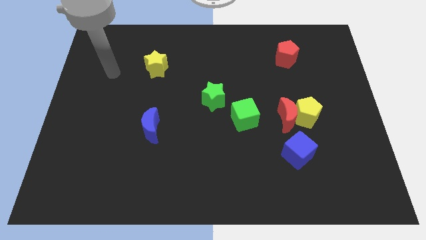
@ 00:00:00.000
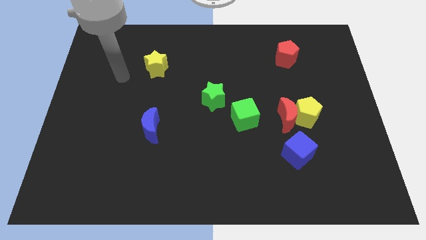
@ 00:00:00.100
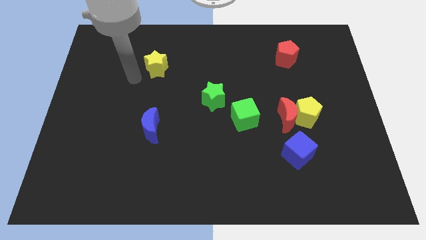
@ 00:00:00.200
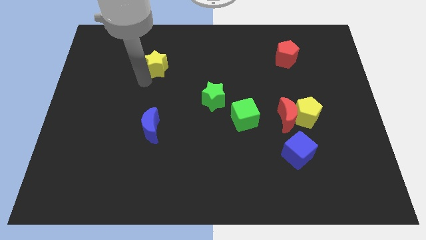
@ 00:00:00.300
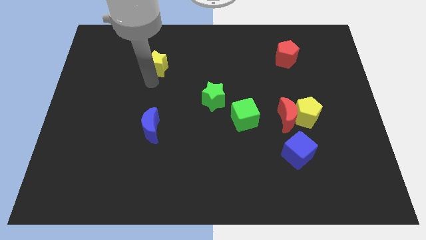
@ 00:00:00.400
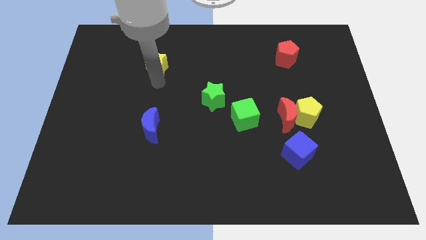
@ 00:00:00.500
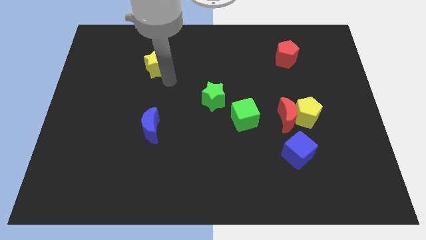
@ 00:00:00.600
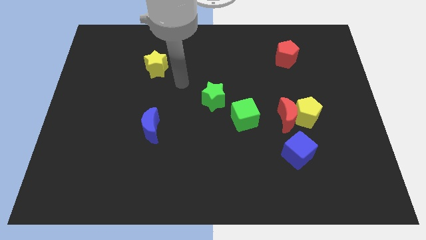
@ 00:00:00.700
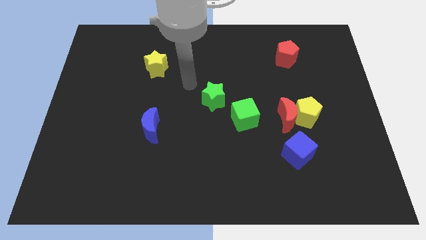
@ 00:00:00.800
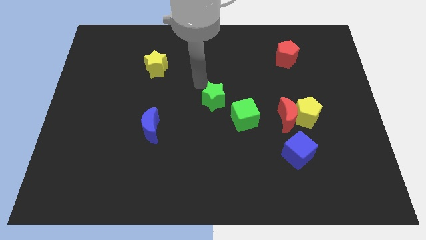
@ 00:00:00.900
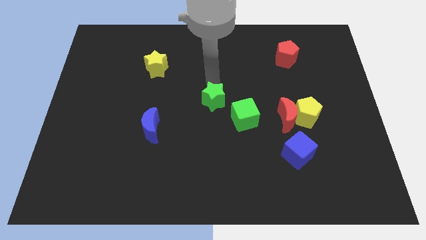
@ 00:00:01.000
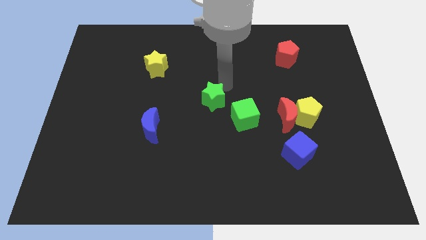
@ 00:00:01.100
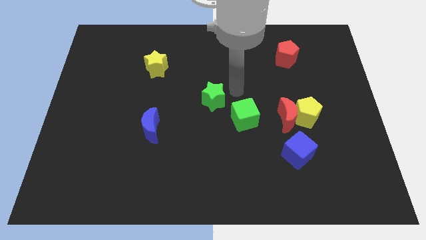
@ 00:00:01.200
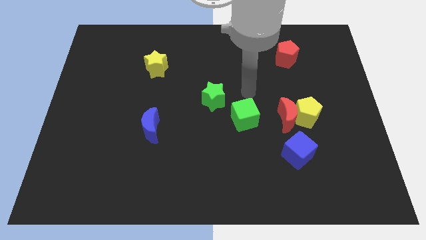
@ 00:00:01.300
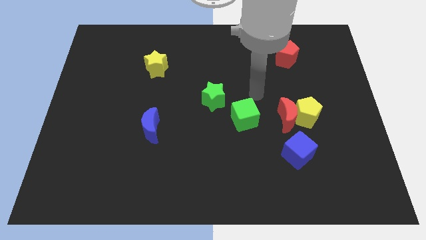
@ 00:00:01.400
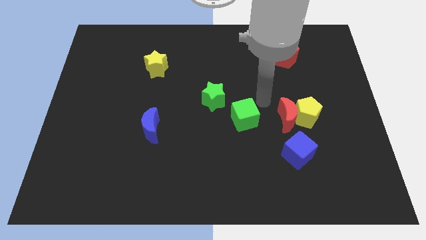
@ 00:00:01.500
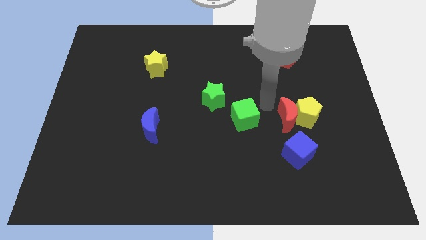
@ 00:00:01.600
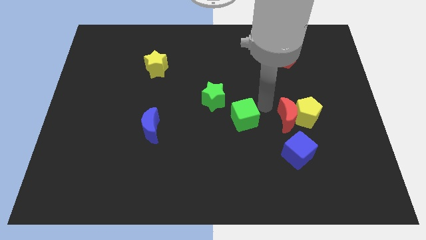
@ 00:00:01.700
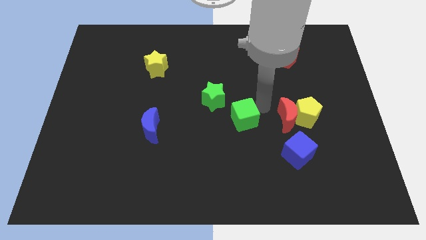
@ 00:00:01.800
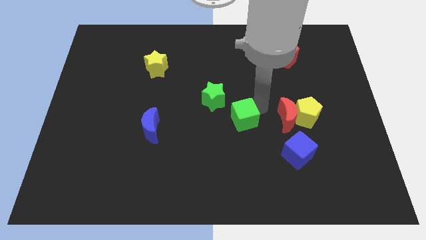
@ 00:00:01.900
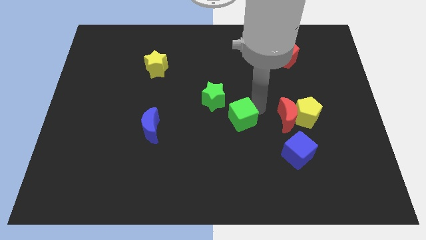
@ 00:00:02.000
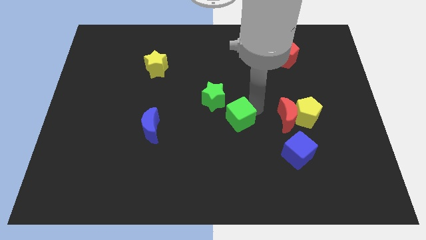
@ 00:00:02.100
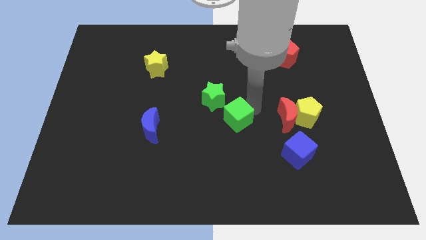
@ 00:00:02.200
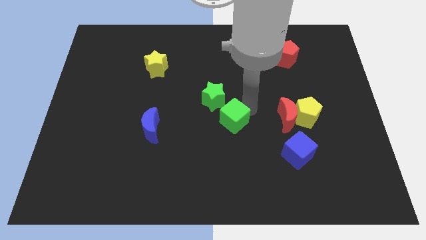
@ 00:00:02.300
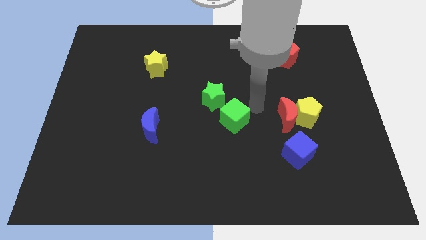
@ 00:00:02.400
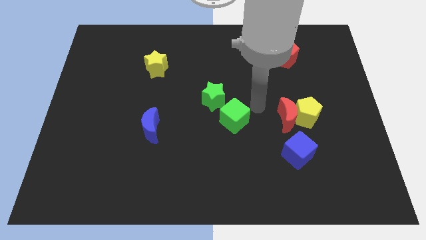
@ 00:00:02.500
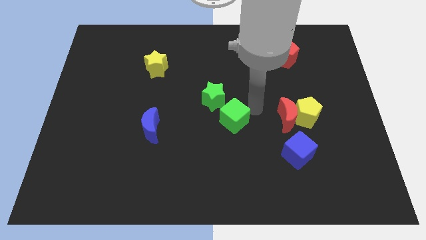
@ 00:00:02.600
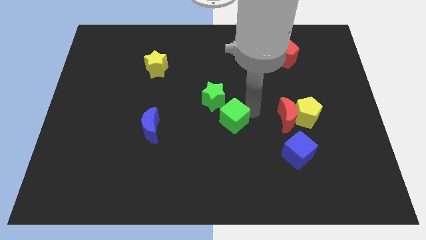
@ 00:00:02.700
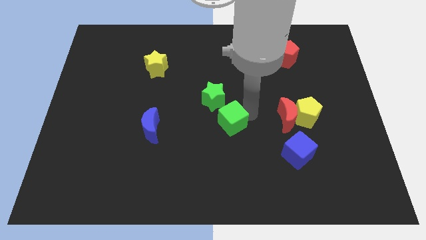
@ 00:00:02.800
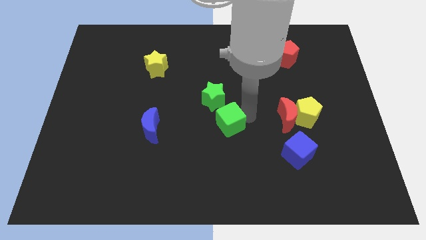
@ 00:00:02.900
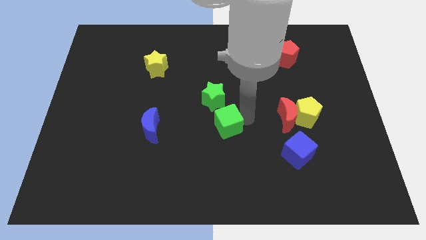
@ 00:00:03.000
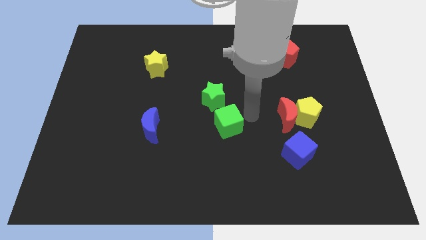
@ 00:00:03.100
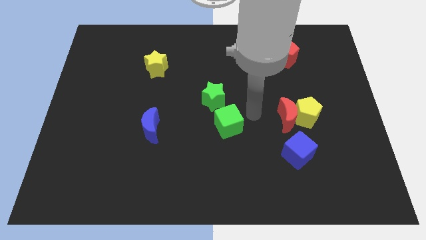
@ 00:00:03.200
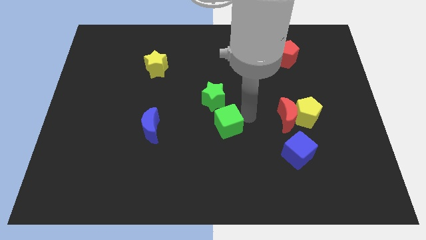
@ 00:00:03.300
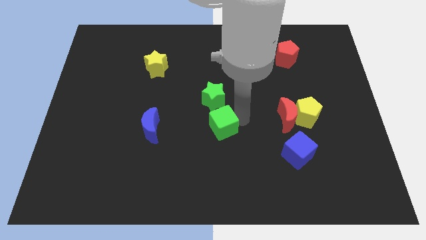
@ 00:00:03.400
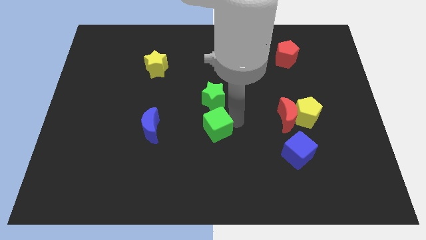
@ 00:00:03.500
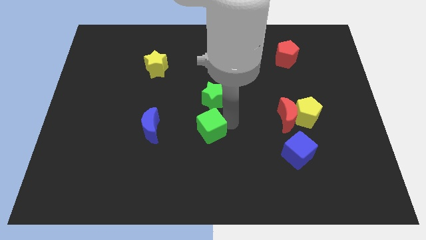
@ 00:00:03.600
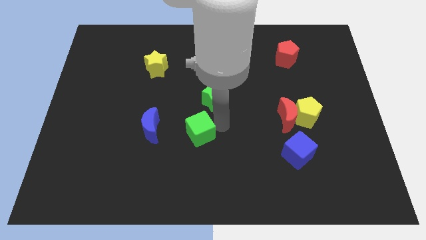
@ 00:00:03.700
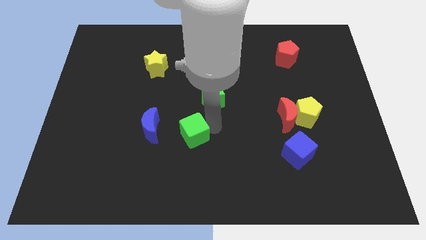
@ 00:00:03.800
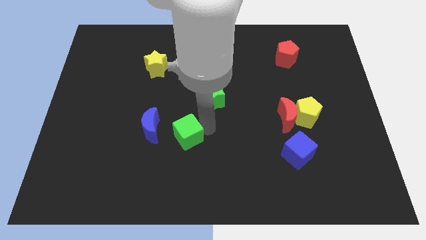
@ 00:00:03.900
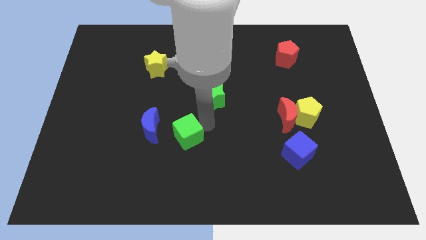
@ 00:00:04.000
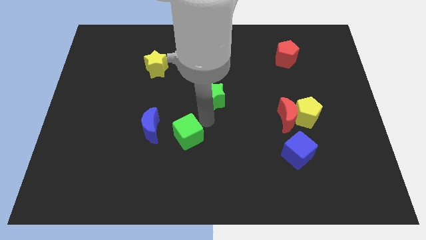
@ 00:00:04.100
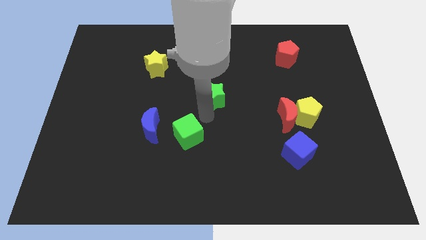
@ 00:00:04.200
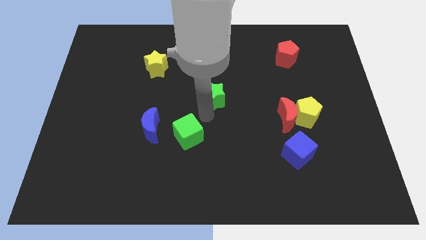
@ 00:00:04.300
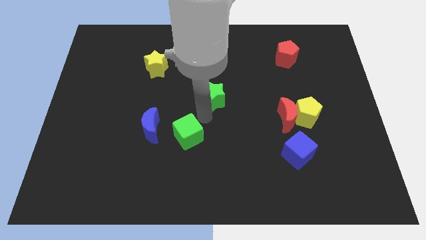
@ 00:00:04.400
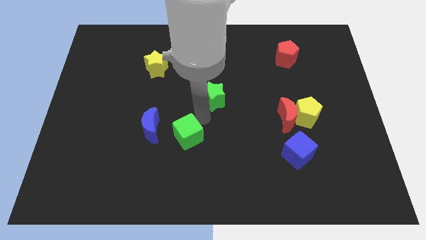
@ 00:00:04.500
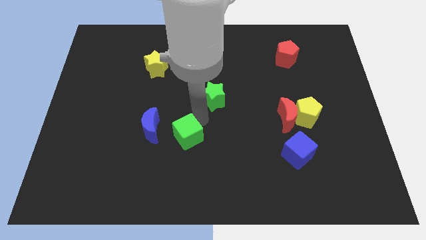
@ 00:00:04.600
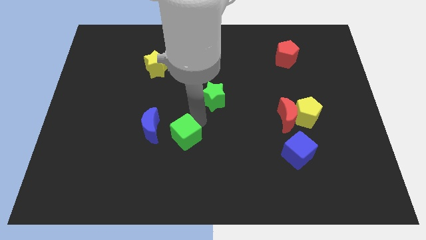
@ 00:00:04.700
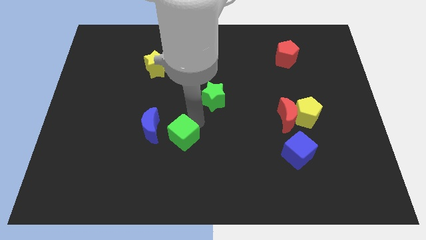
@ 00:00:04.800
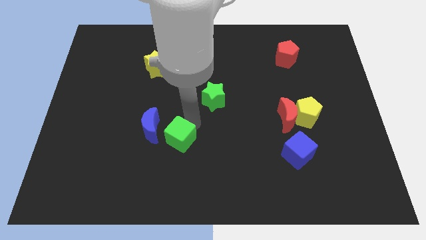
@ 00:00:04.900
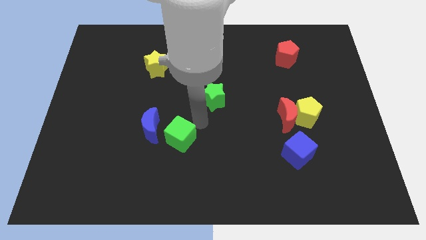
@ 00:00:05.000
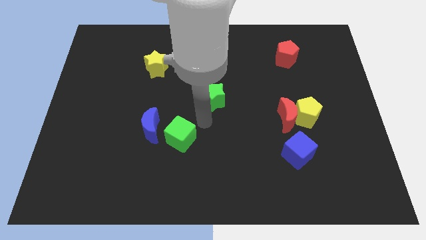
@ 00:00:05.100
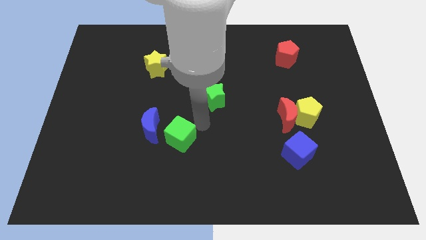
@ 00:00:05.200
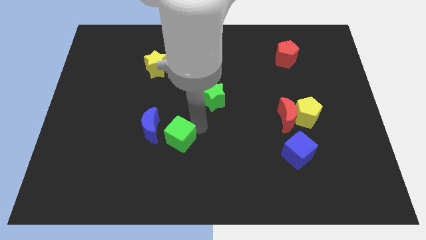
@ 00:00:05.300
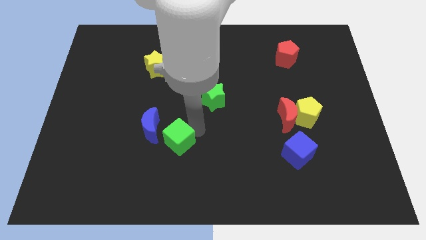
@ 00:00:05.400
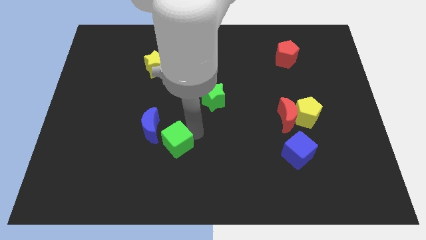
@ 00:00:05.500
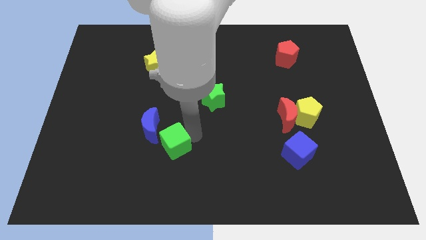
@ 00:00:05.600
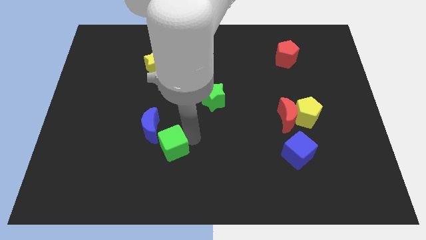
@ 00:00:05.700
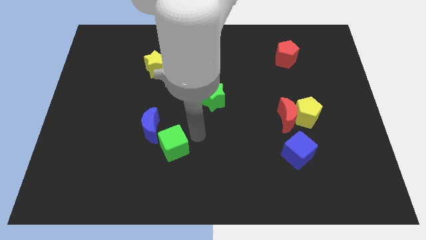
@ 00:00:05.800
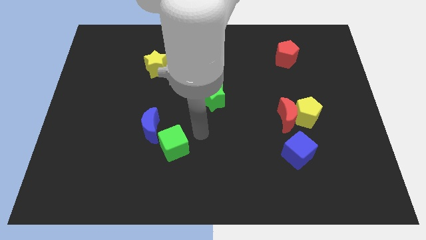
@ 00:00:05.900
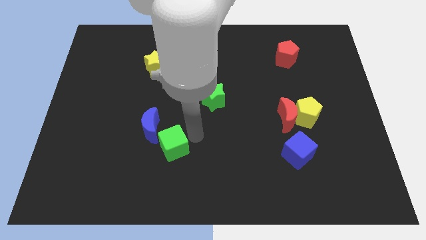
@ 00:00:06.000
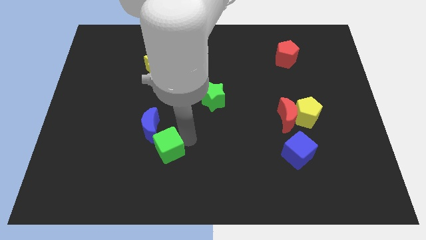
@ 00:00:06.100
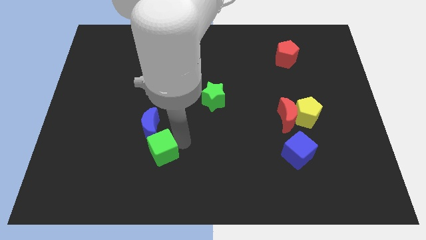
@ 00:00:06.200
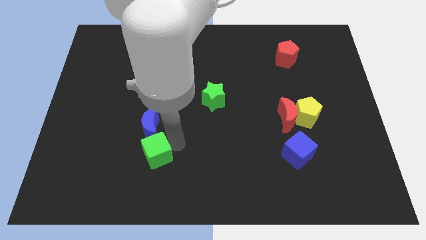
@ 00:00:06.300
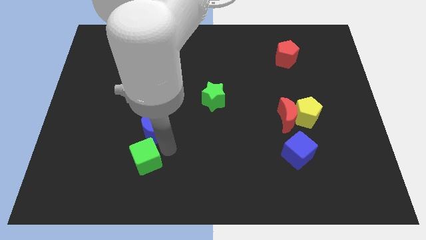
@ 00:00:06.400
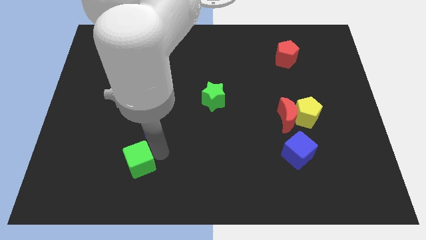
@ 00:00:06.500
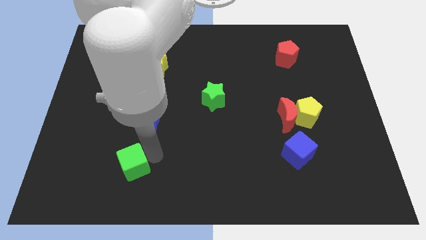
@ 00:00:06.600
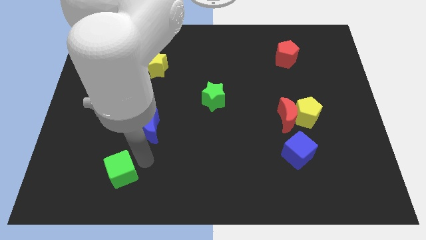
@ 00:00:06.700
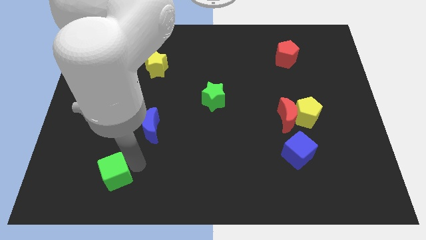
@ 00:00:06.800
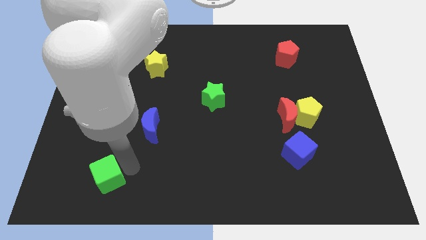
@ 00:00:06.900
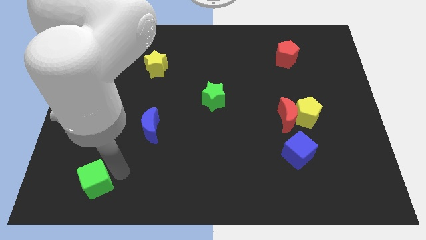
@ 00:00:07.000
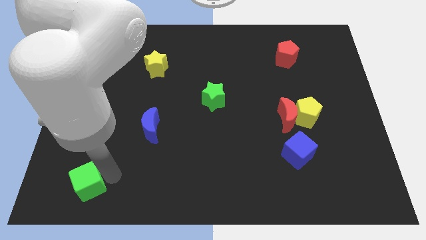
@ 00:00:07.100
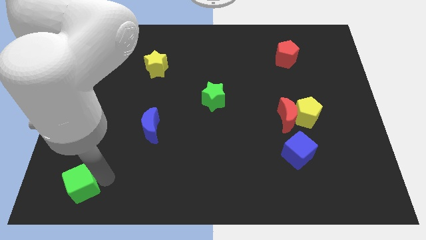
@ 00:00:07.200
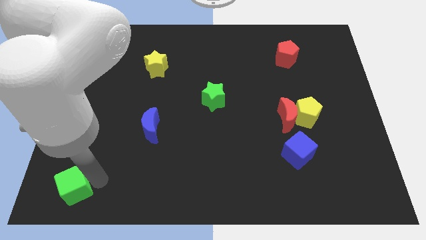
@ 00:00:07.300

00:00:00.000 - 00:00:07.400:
slide the green cube to the bottom left of the board
